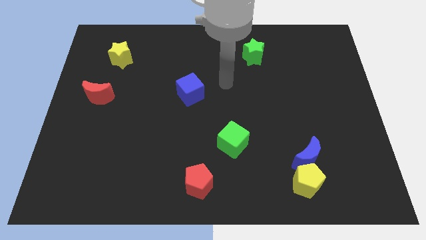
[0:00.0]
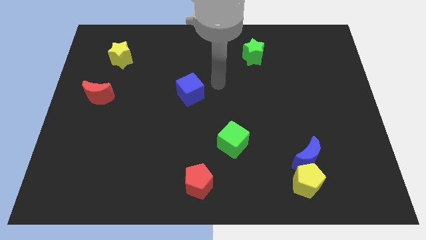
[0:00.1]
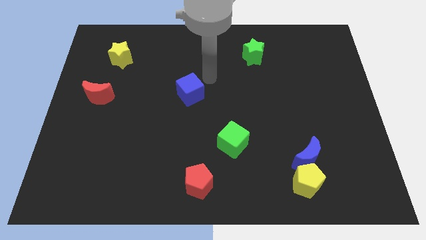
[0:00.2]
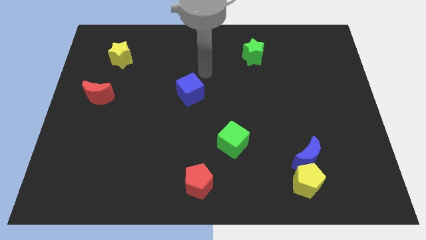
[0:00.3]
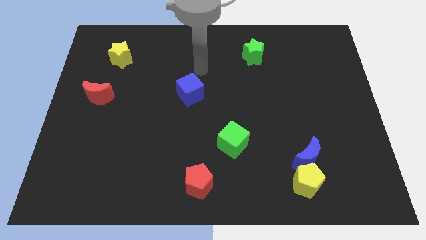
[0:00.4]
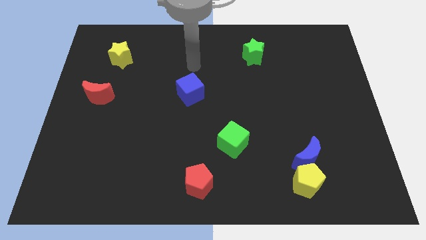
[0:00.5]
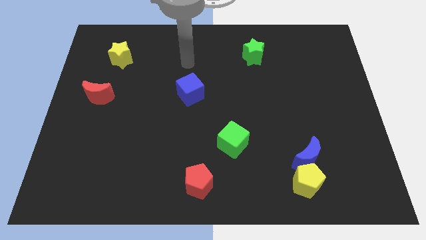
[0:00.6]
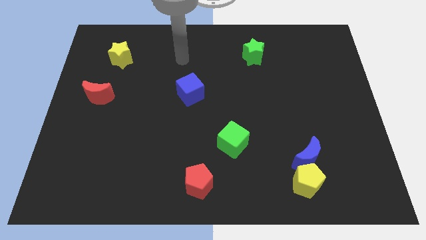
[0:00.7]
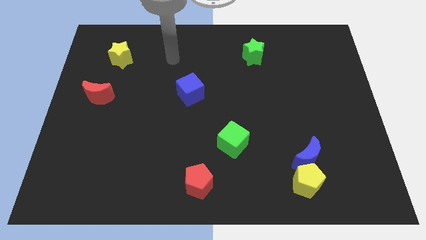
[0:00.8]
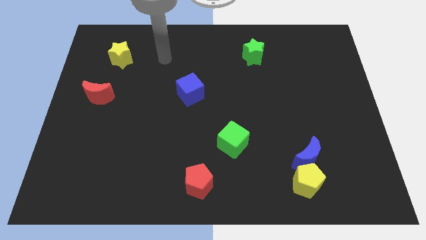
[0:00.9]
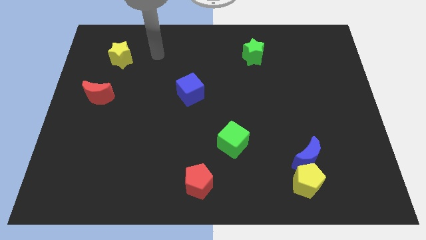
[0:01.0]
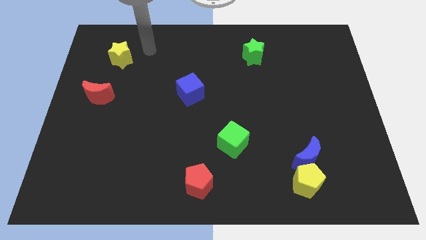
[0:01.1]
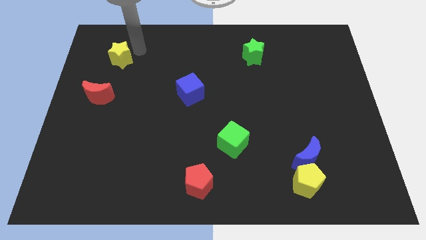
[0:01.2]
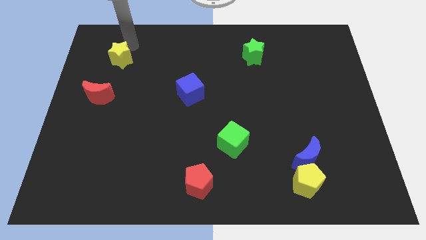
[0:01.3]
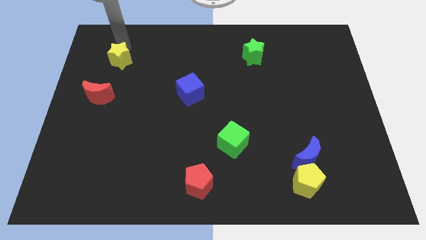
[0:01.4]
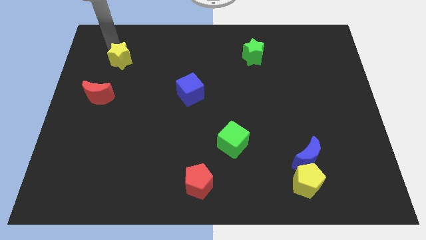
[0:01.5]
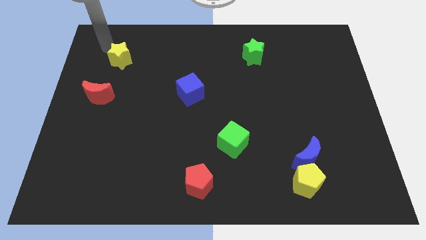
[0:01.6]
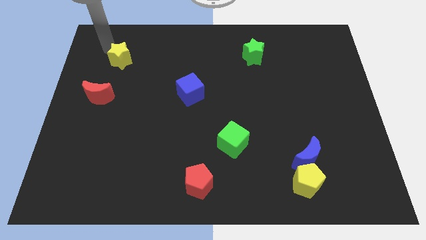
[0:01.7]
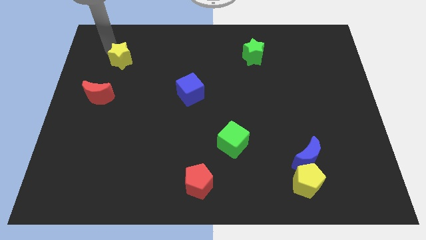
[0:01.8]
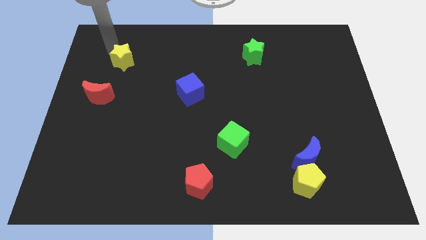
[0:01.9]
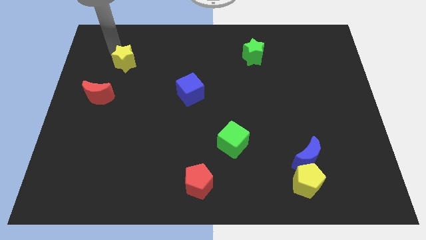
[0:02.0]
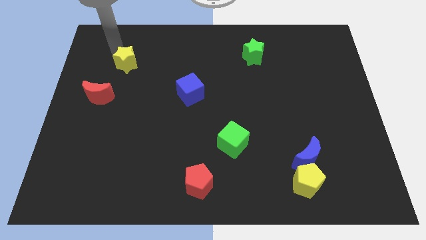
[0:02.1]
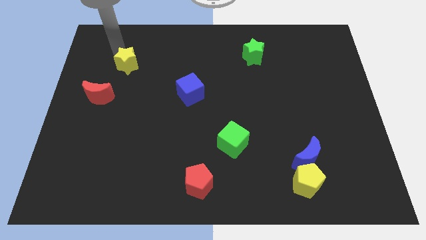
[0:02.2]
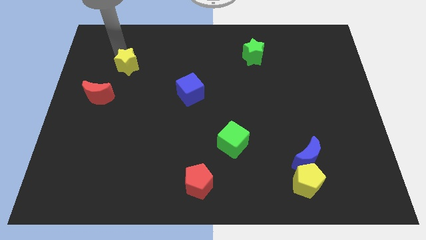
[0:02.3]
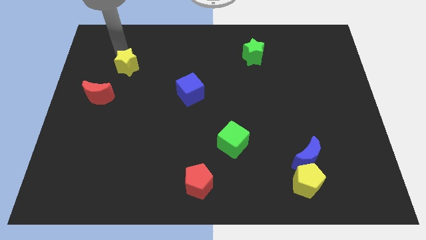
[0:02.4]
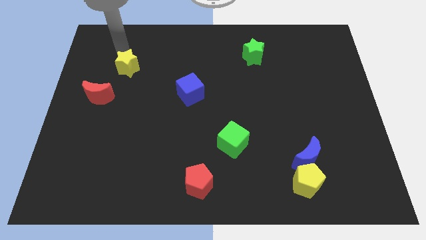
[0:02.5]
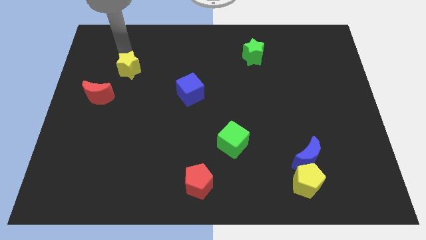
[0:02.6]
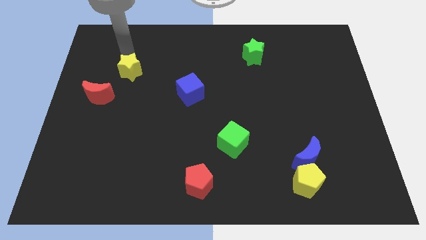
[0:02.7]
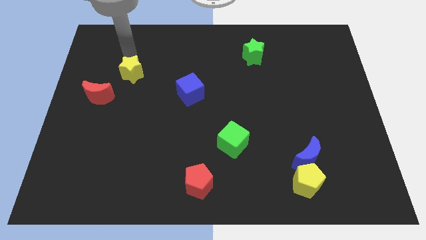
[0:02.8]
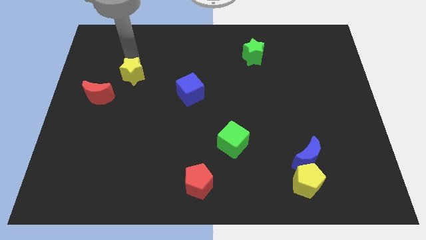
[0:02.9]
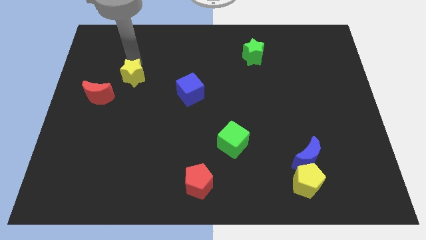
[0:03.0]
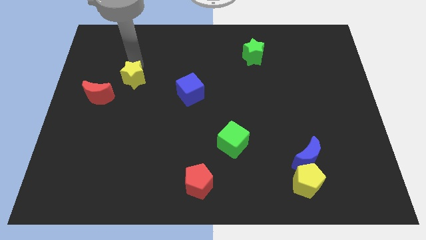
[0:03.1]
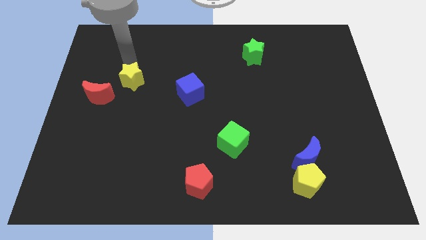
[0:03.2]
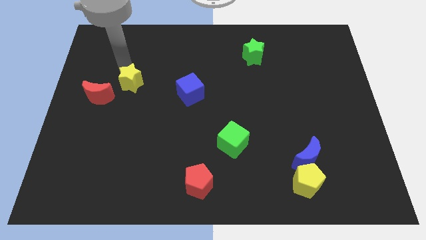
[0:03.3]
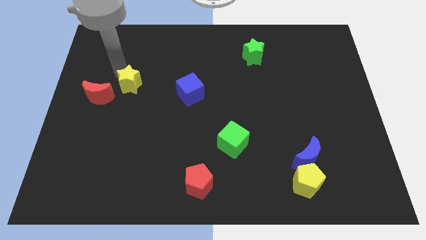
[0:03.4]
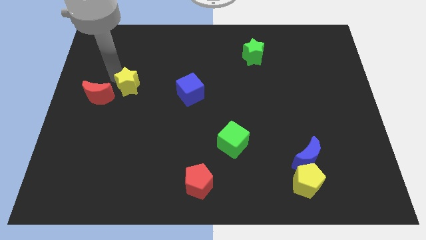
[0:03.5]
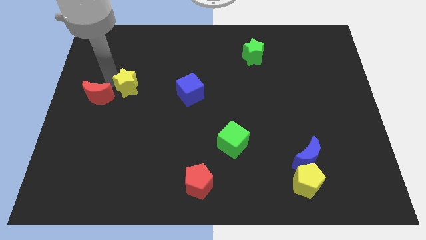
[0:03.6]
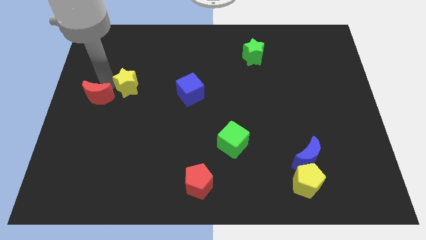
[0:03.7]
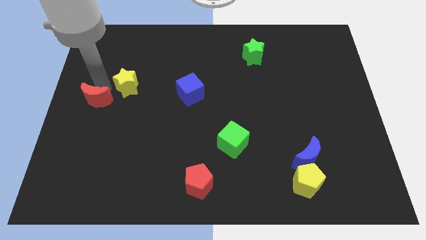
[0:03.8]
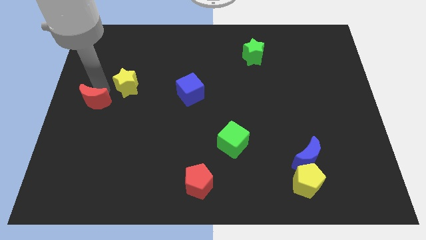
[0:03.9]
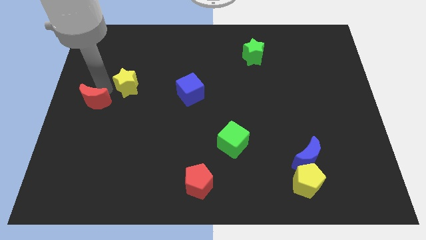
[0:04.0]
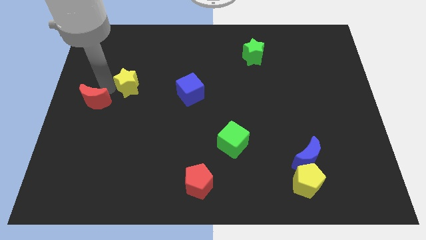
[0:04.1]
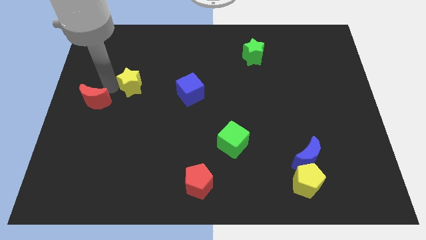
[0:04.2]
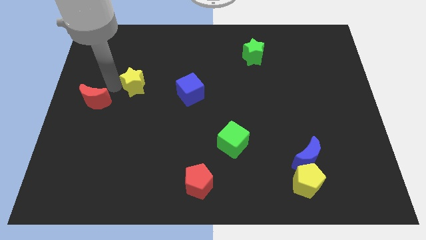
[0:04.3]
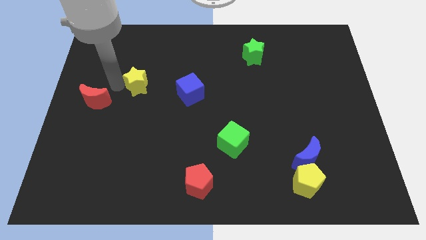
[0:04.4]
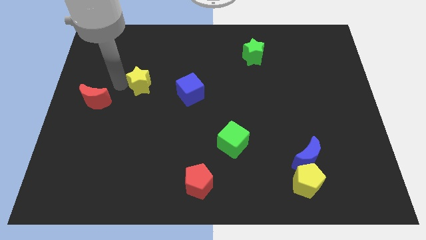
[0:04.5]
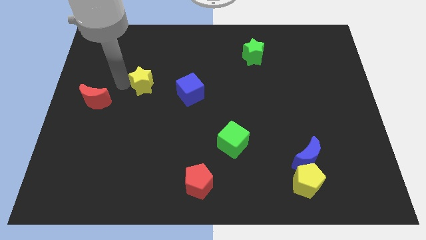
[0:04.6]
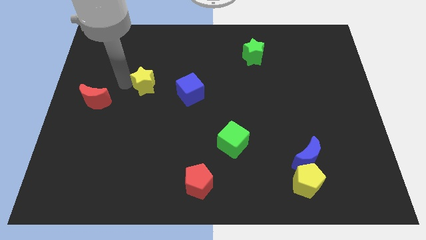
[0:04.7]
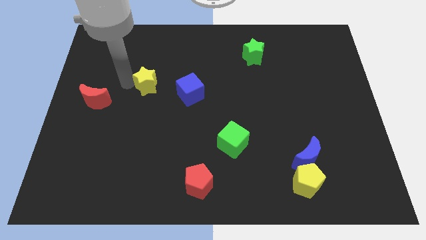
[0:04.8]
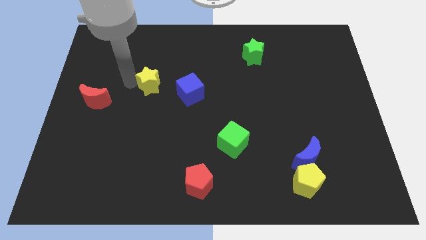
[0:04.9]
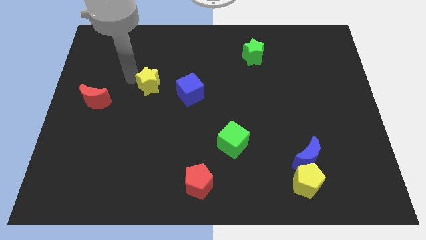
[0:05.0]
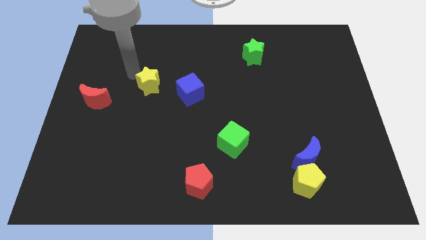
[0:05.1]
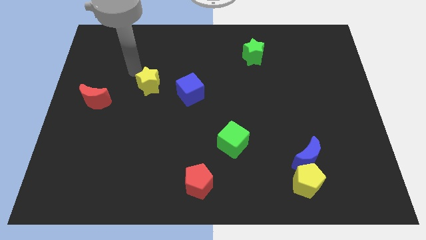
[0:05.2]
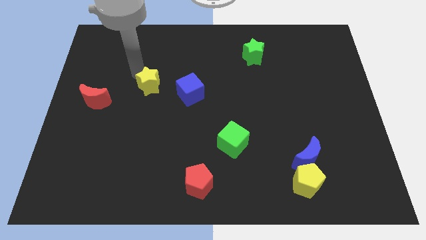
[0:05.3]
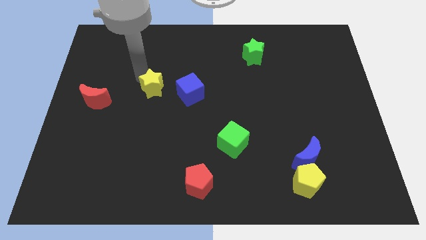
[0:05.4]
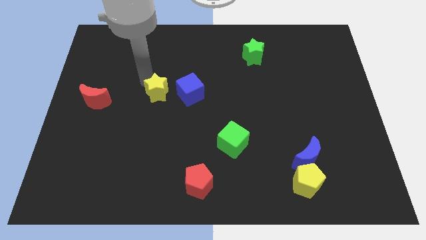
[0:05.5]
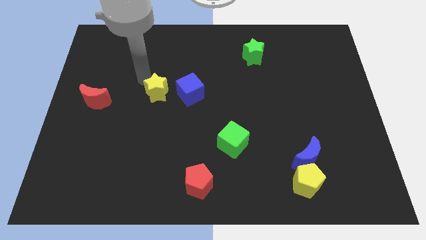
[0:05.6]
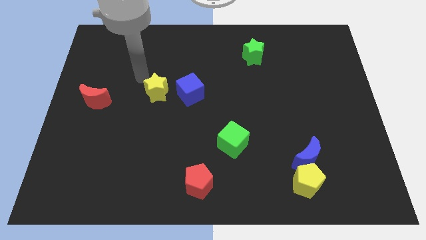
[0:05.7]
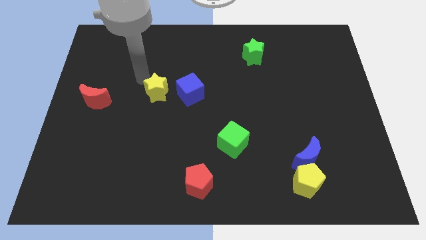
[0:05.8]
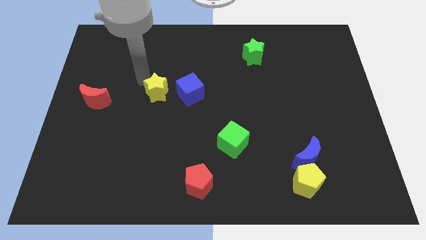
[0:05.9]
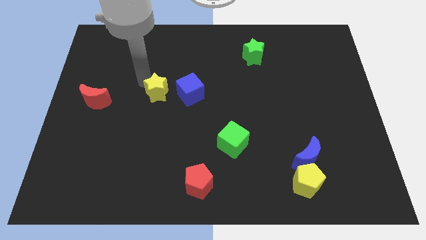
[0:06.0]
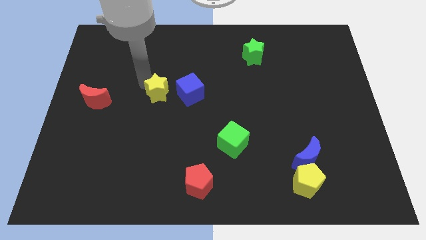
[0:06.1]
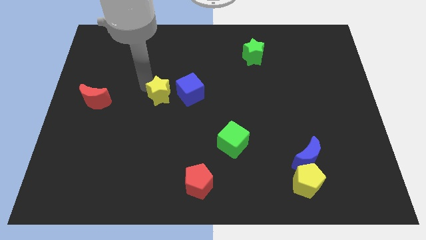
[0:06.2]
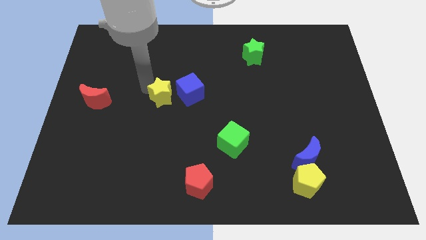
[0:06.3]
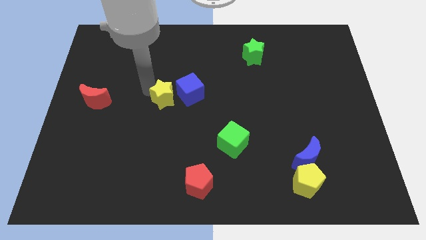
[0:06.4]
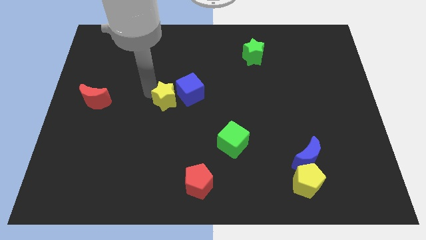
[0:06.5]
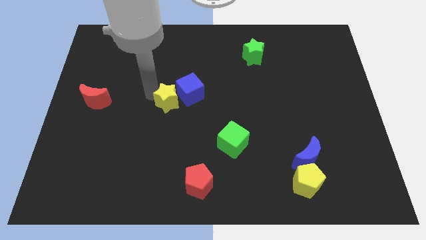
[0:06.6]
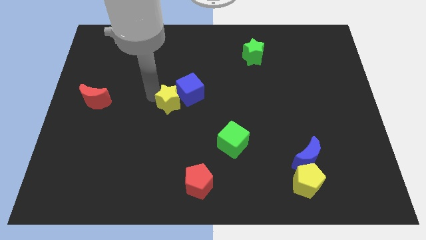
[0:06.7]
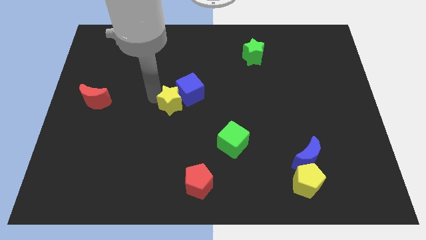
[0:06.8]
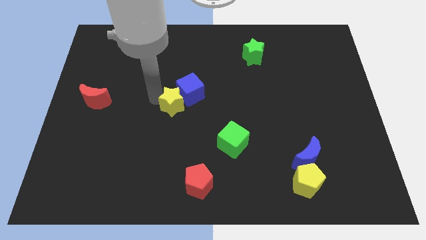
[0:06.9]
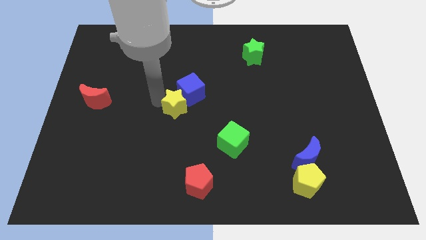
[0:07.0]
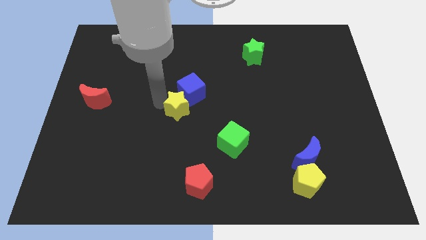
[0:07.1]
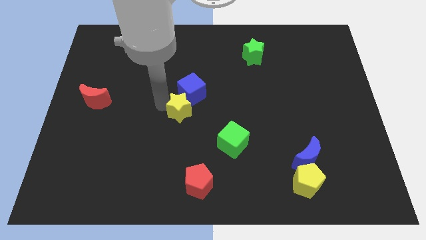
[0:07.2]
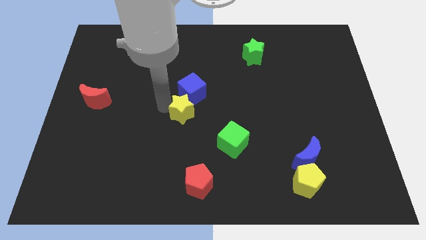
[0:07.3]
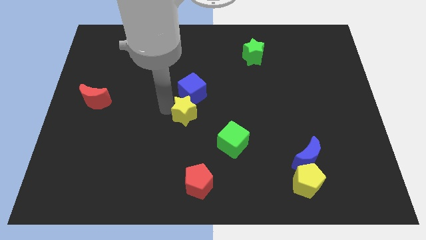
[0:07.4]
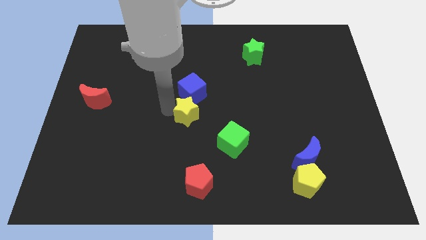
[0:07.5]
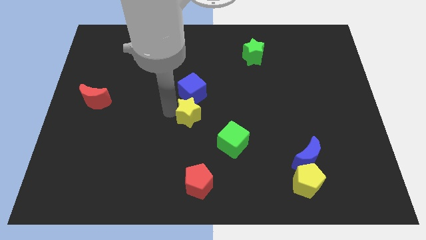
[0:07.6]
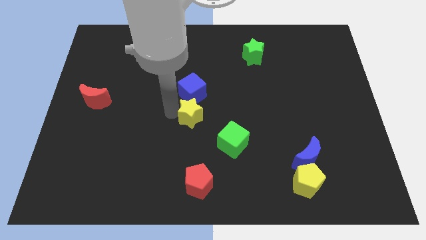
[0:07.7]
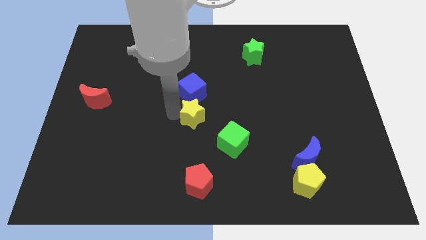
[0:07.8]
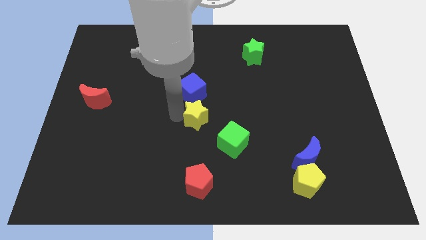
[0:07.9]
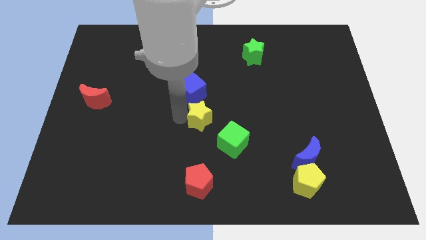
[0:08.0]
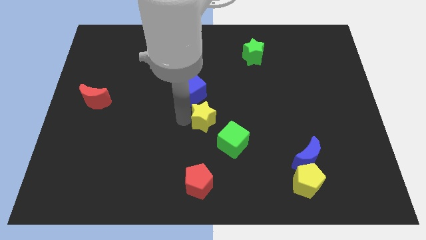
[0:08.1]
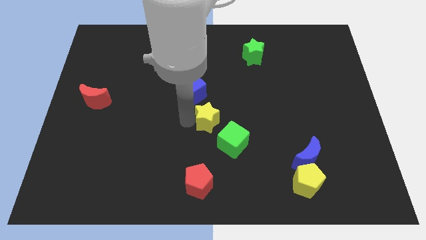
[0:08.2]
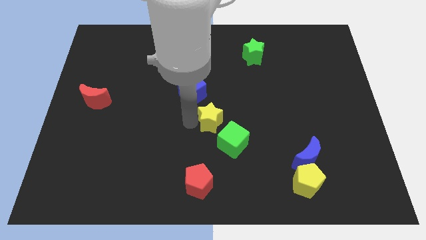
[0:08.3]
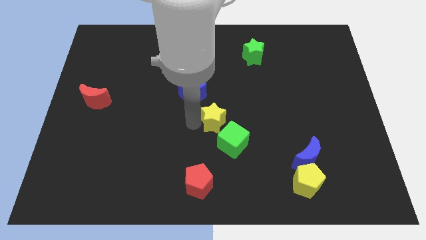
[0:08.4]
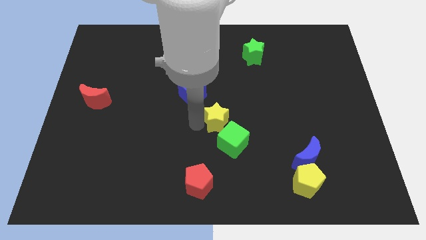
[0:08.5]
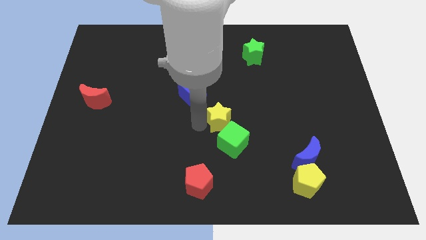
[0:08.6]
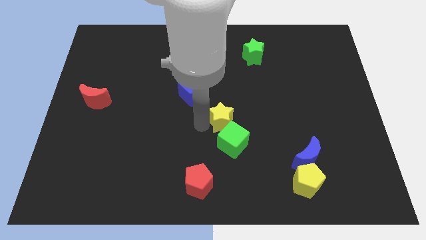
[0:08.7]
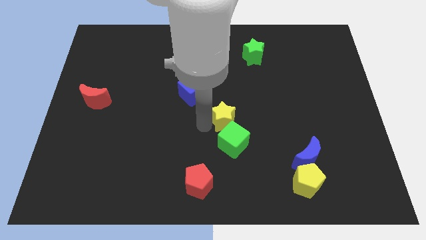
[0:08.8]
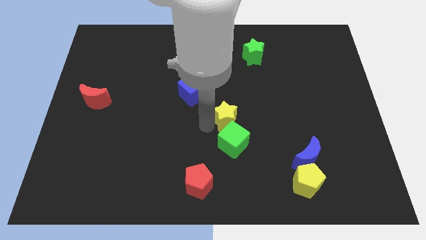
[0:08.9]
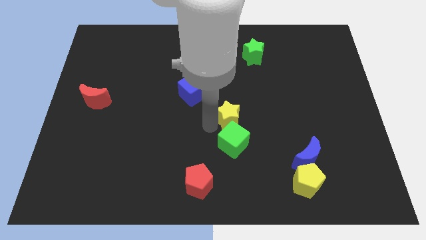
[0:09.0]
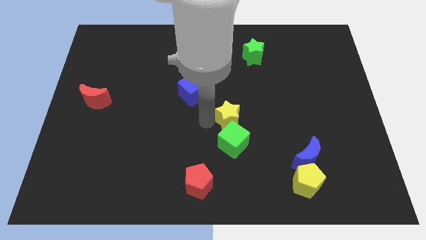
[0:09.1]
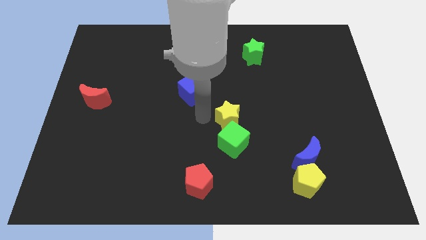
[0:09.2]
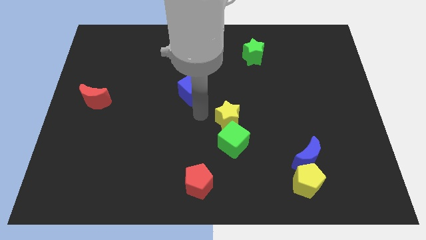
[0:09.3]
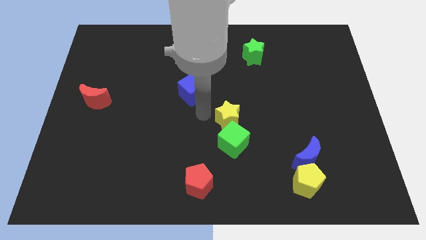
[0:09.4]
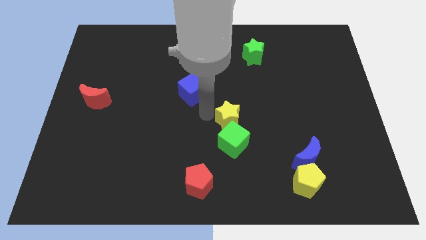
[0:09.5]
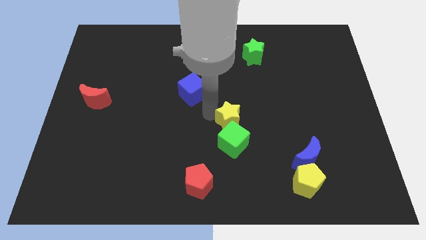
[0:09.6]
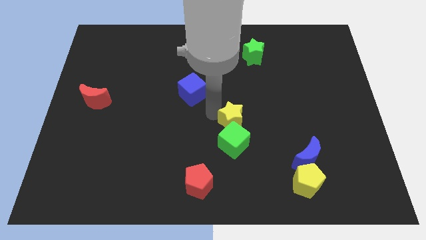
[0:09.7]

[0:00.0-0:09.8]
put the yellow star to the top right side of the green cube
